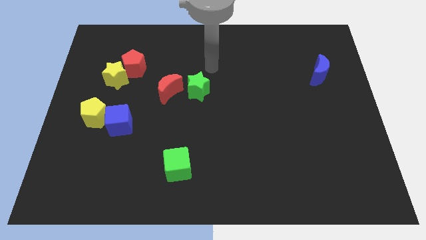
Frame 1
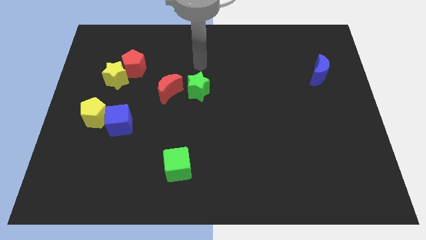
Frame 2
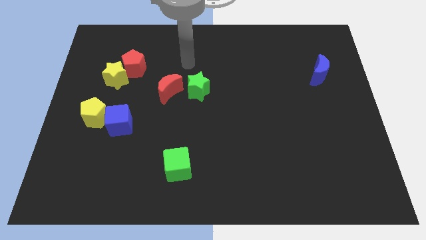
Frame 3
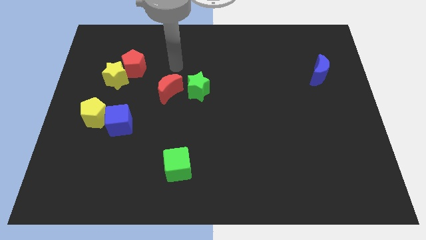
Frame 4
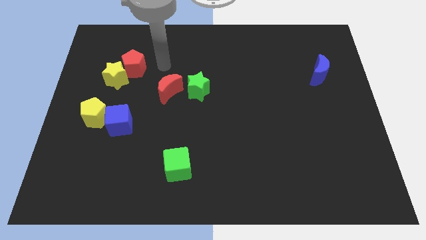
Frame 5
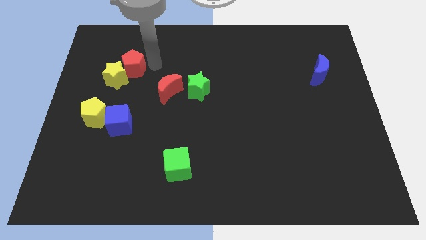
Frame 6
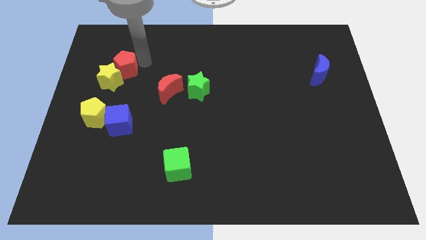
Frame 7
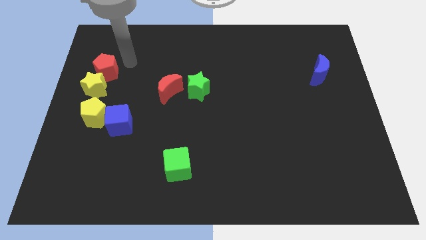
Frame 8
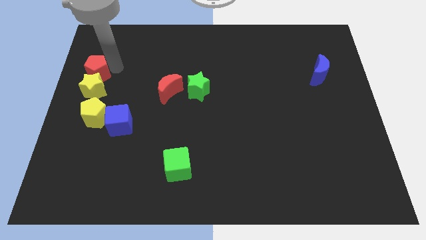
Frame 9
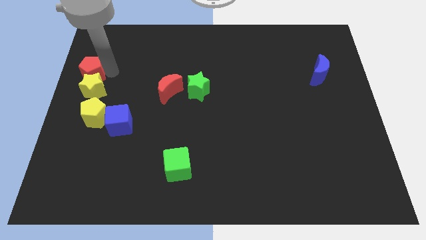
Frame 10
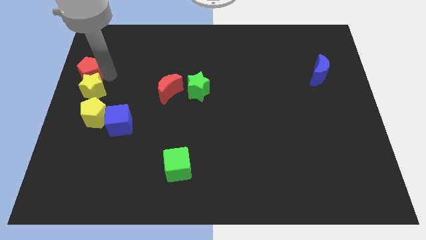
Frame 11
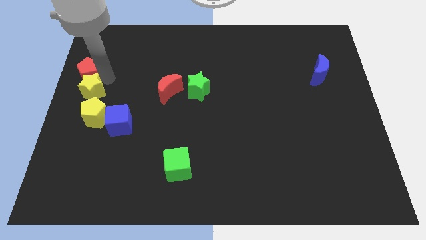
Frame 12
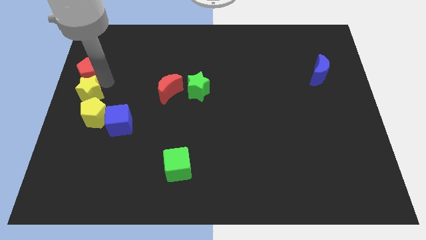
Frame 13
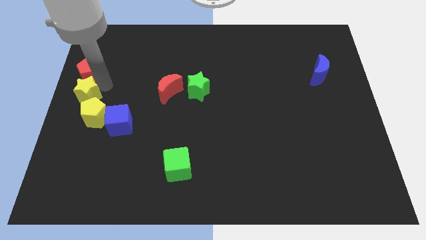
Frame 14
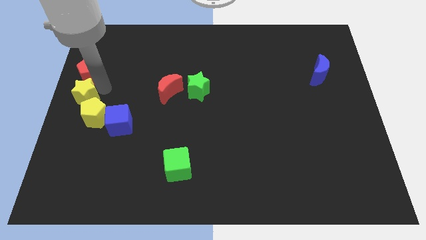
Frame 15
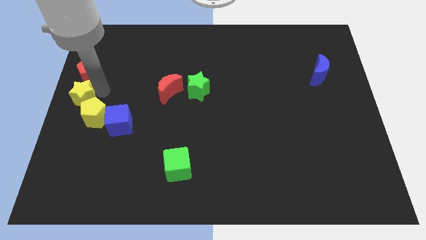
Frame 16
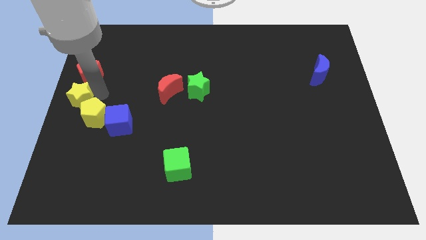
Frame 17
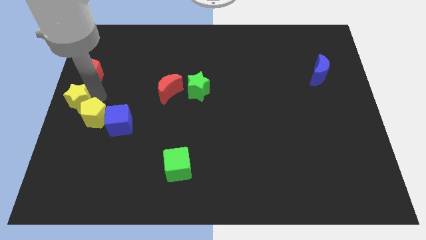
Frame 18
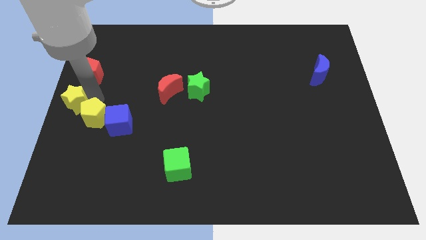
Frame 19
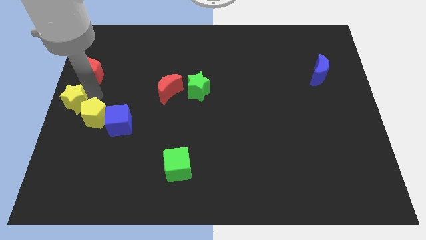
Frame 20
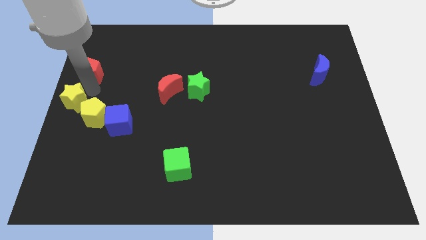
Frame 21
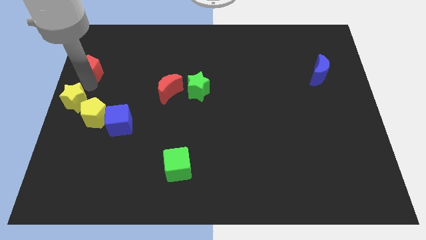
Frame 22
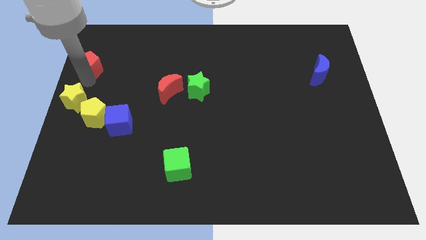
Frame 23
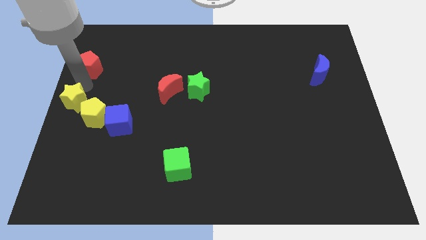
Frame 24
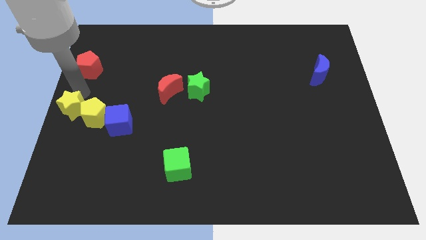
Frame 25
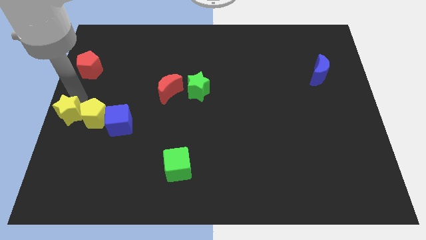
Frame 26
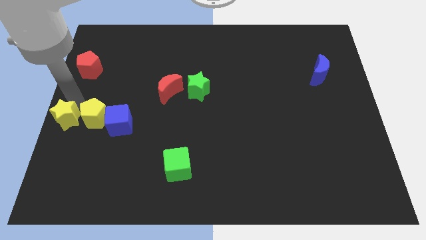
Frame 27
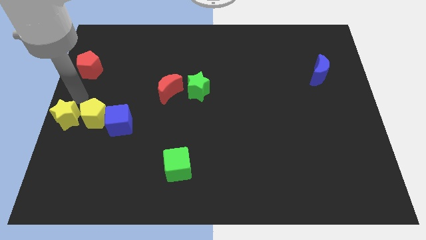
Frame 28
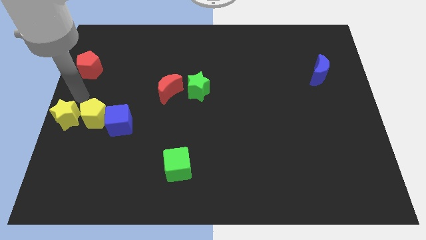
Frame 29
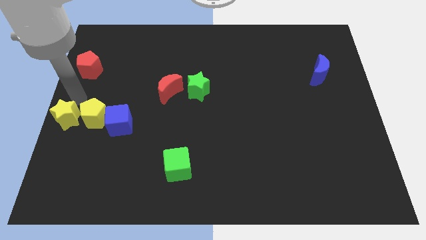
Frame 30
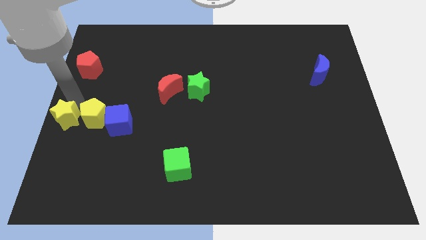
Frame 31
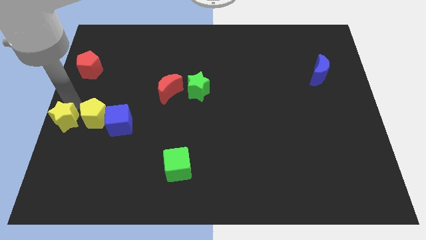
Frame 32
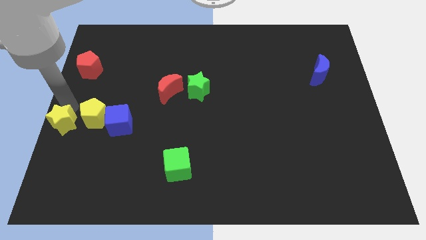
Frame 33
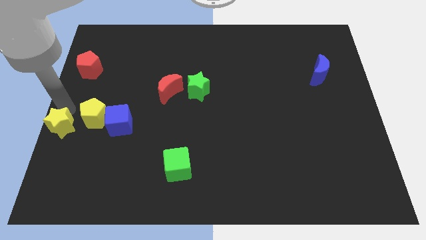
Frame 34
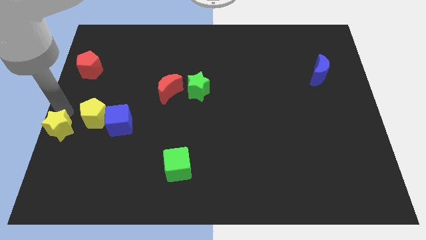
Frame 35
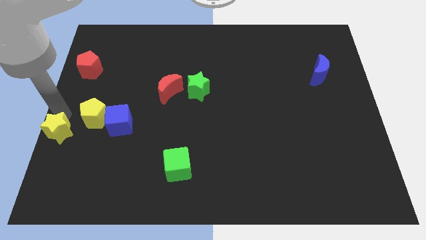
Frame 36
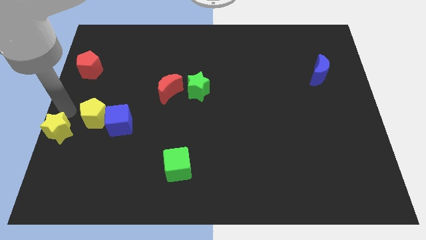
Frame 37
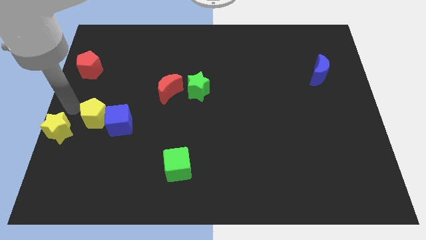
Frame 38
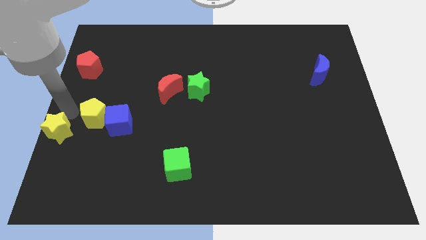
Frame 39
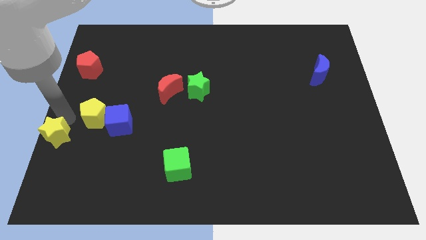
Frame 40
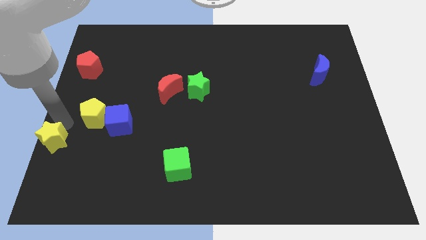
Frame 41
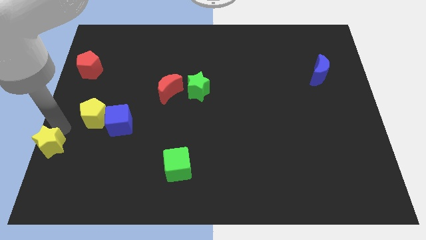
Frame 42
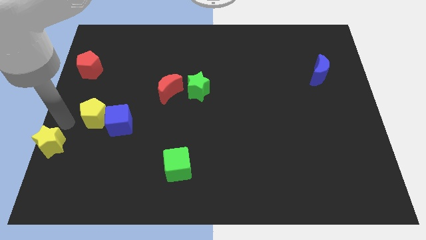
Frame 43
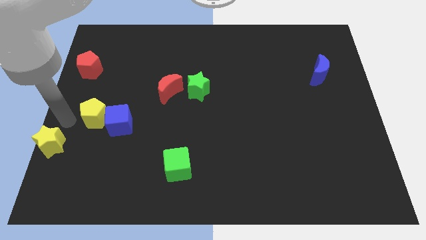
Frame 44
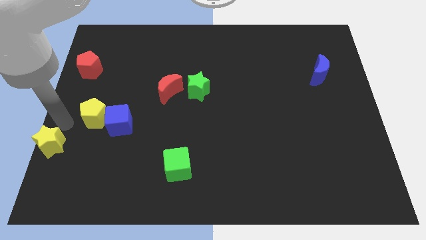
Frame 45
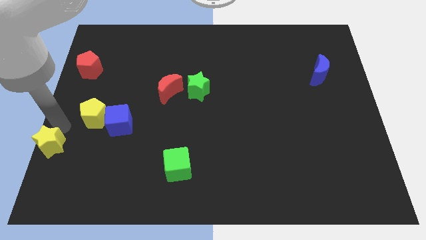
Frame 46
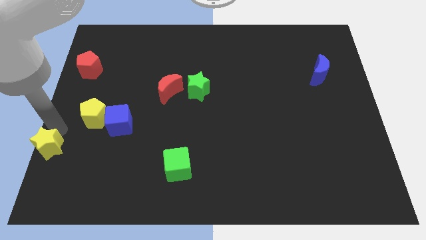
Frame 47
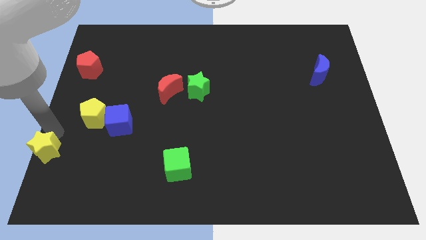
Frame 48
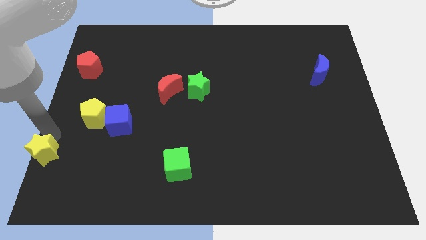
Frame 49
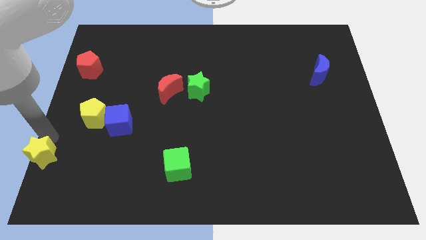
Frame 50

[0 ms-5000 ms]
move the yellow star to the bottom left

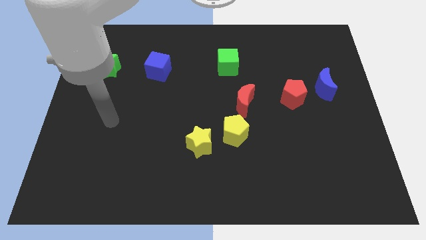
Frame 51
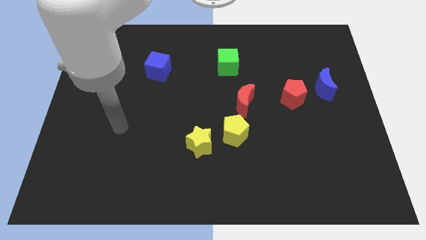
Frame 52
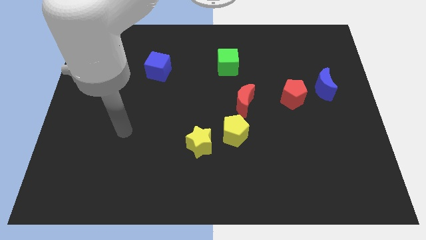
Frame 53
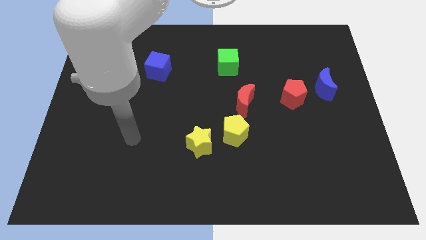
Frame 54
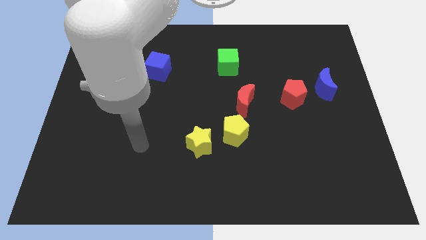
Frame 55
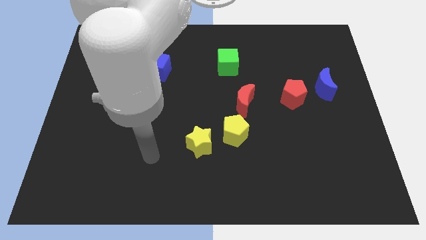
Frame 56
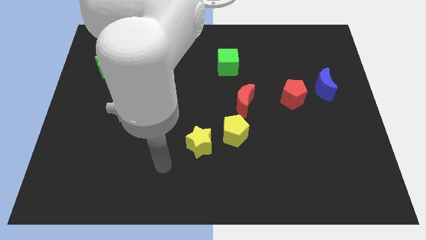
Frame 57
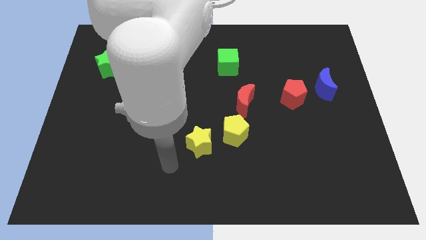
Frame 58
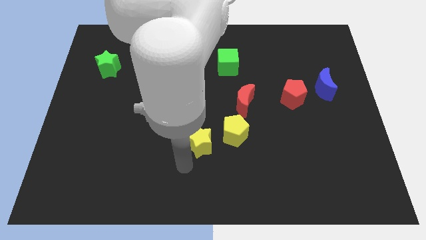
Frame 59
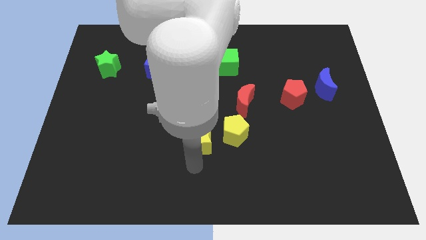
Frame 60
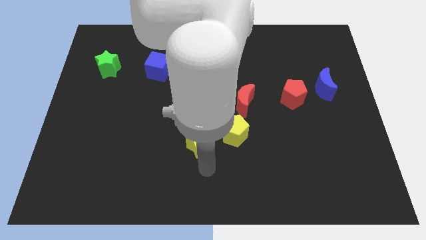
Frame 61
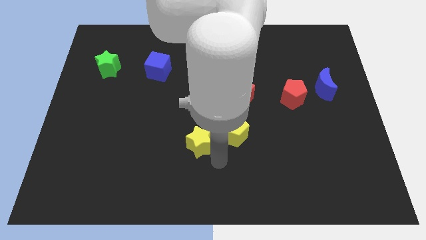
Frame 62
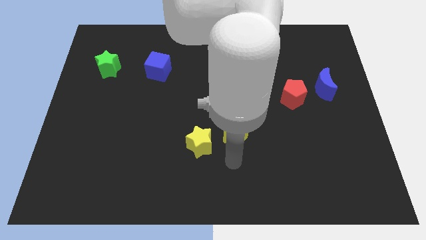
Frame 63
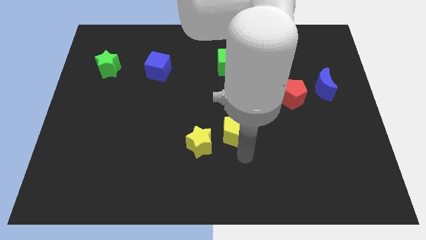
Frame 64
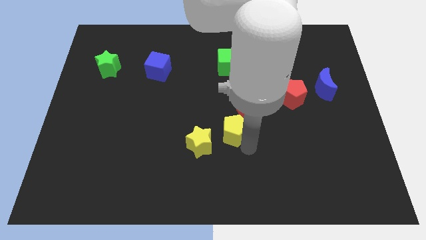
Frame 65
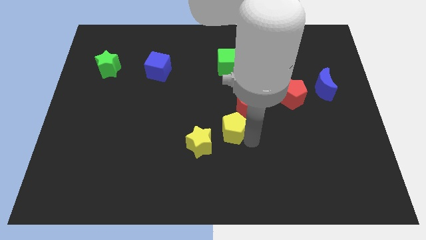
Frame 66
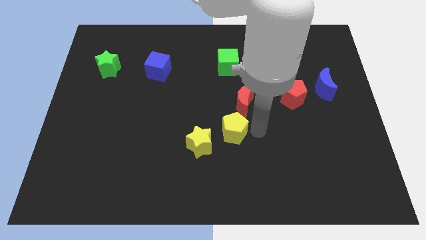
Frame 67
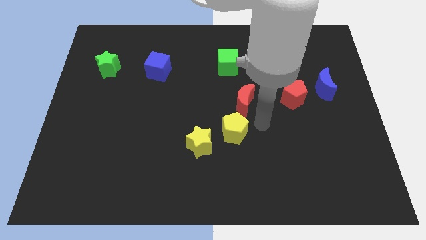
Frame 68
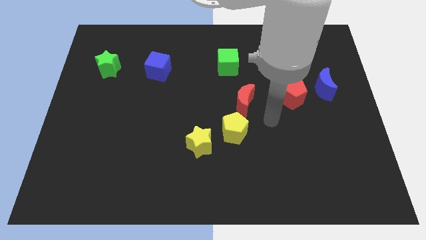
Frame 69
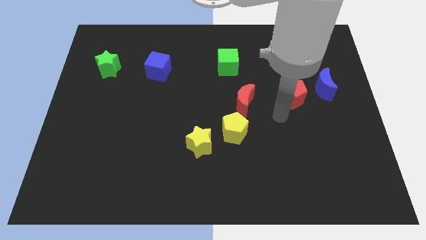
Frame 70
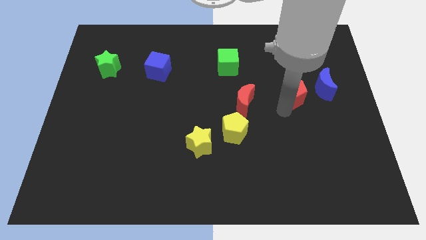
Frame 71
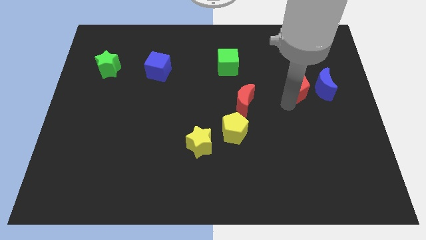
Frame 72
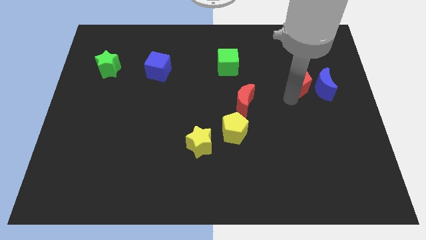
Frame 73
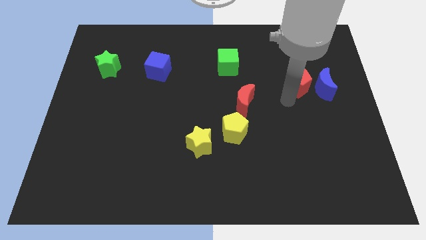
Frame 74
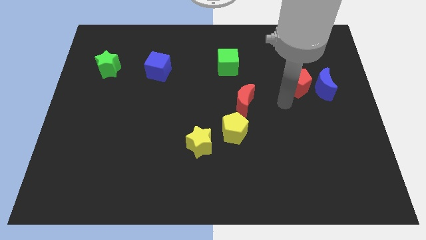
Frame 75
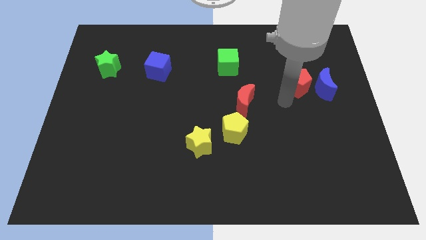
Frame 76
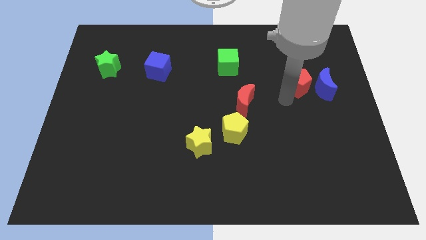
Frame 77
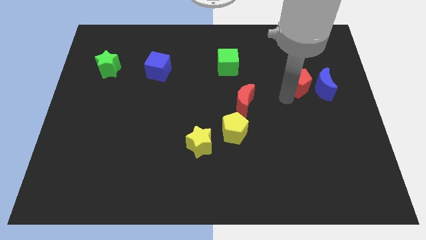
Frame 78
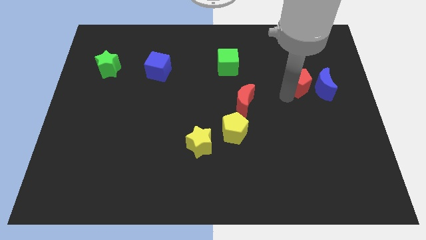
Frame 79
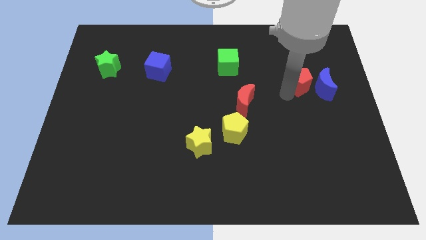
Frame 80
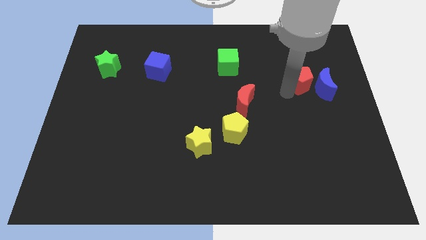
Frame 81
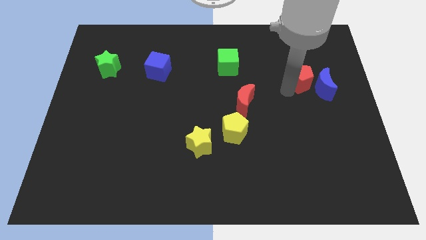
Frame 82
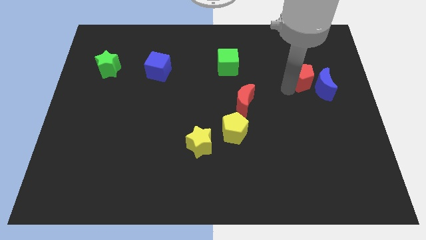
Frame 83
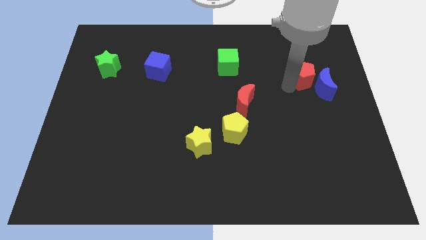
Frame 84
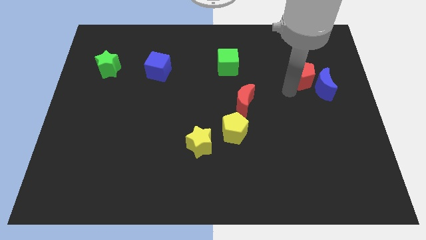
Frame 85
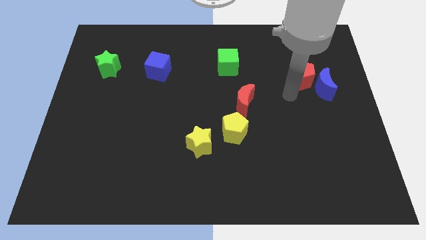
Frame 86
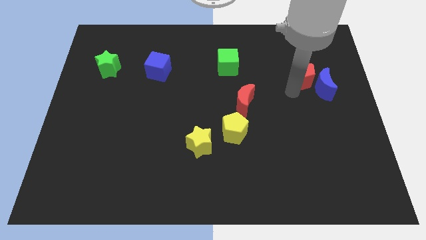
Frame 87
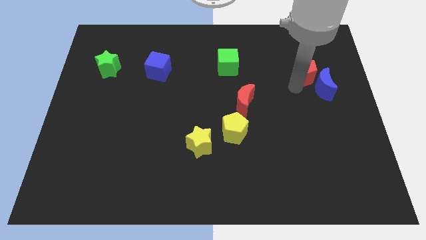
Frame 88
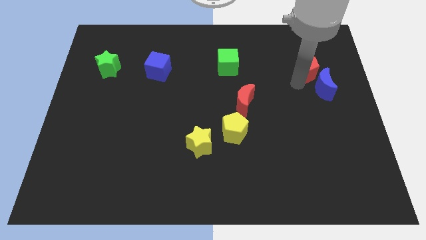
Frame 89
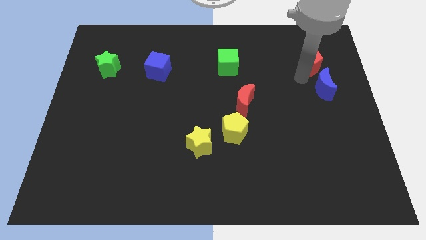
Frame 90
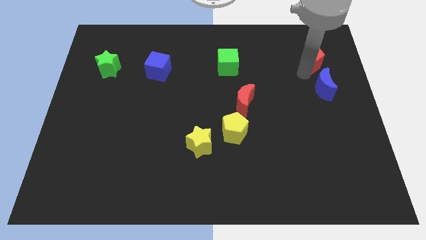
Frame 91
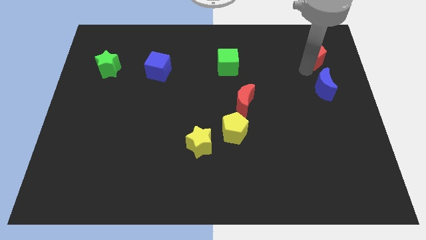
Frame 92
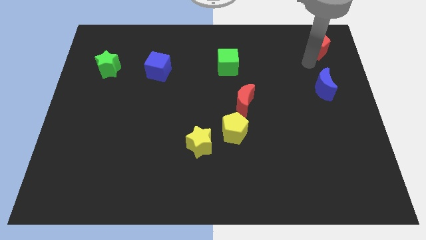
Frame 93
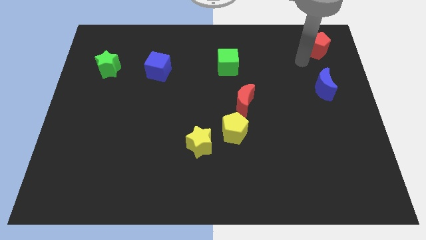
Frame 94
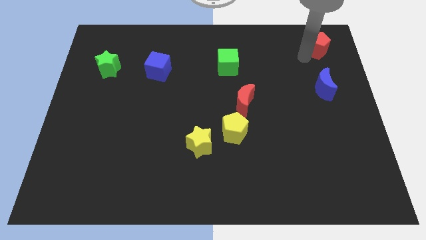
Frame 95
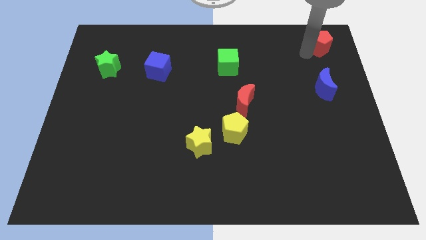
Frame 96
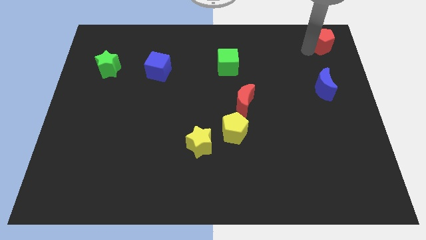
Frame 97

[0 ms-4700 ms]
slide the red pentagon to the upper right corner
